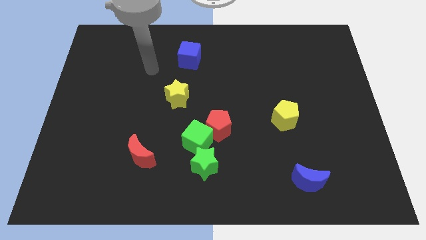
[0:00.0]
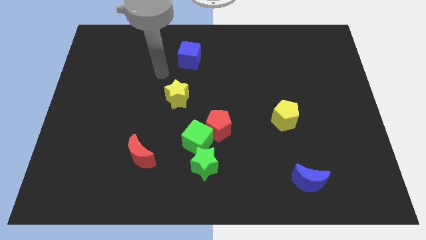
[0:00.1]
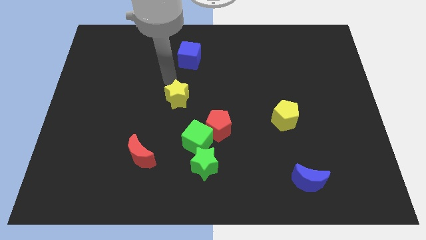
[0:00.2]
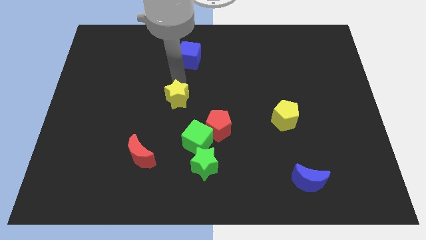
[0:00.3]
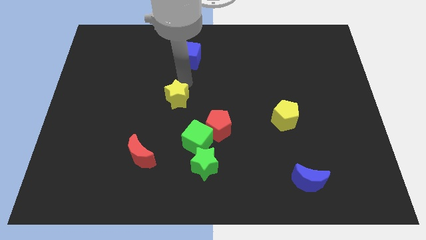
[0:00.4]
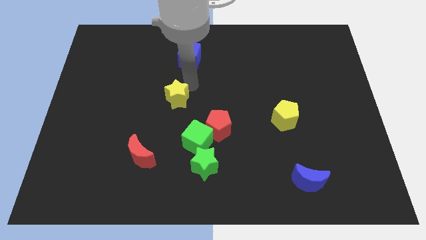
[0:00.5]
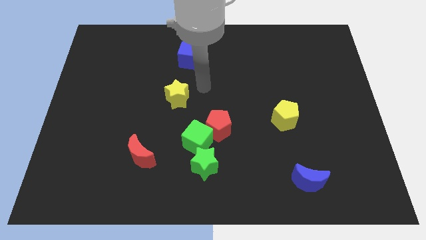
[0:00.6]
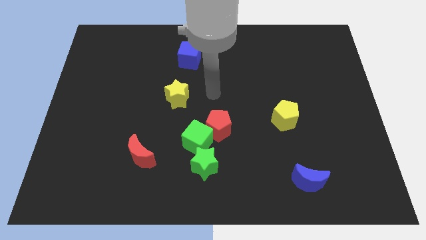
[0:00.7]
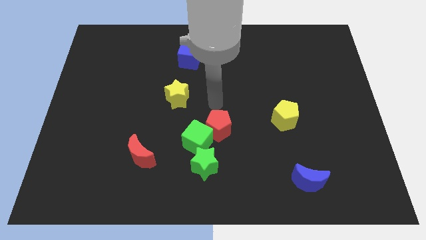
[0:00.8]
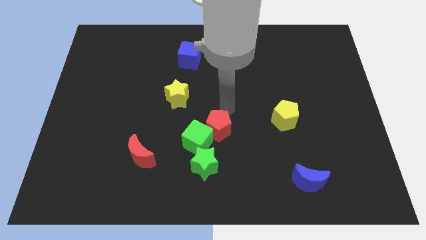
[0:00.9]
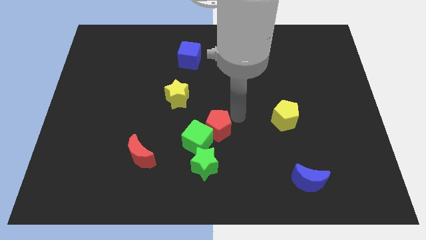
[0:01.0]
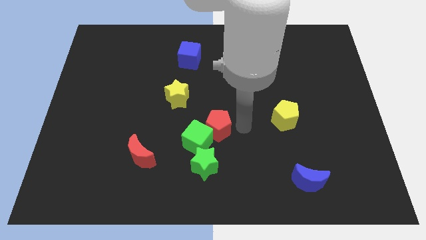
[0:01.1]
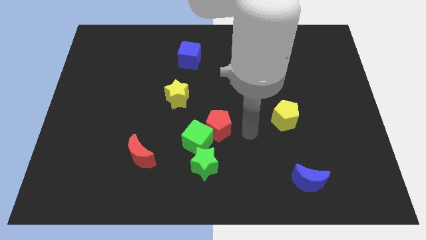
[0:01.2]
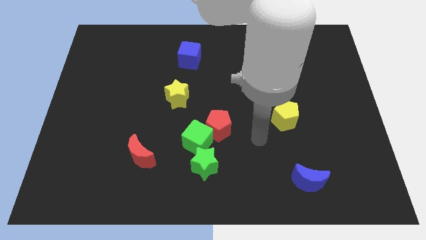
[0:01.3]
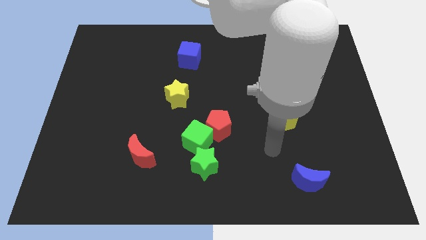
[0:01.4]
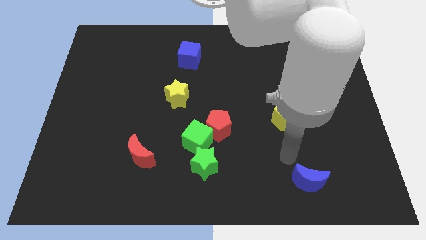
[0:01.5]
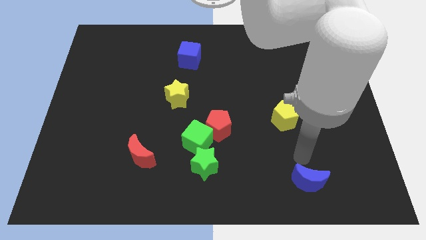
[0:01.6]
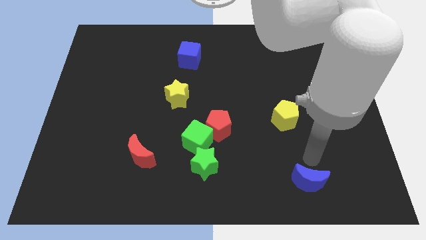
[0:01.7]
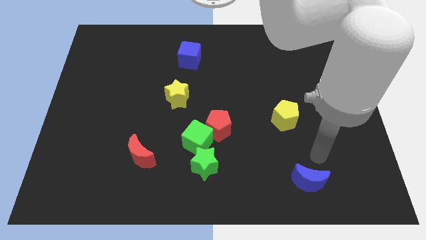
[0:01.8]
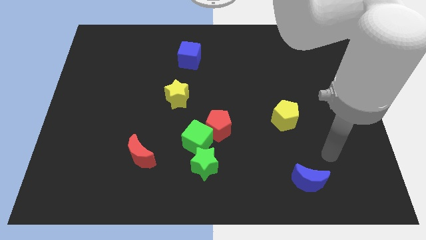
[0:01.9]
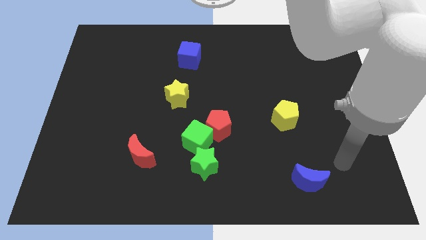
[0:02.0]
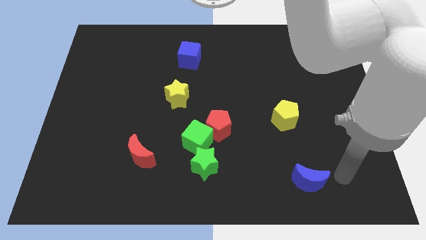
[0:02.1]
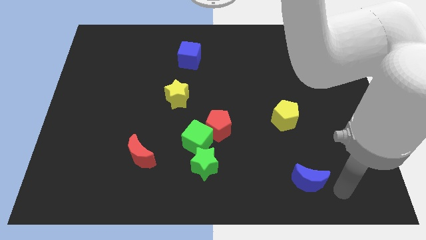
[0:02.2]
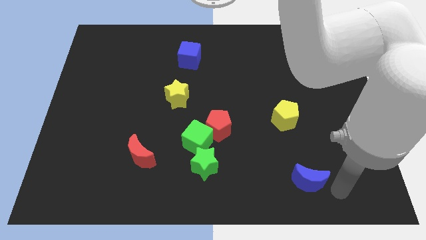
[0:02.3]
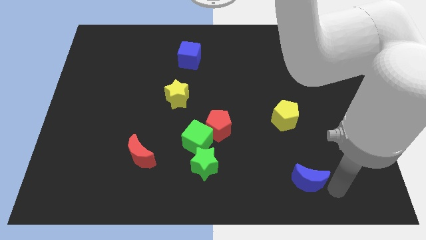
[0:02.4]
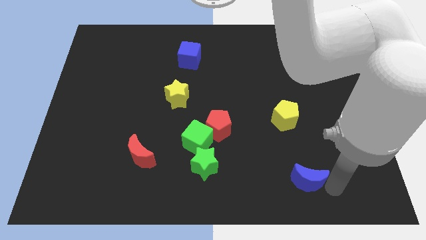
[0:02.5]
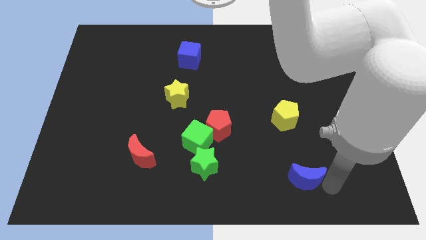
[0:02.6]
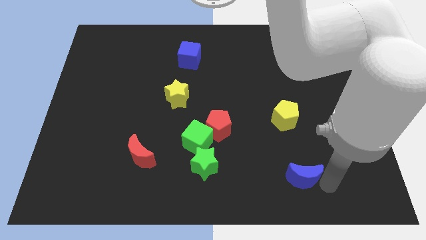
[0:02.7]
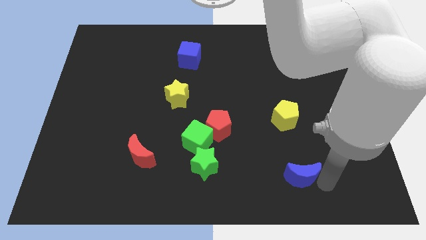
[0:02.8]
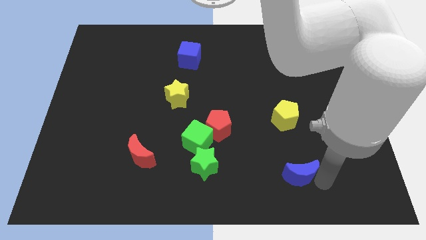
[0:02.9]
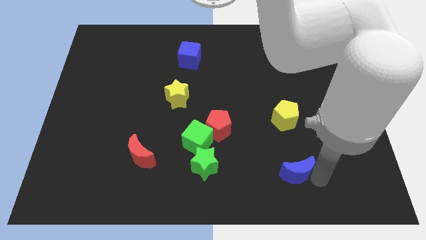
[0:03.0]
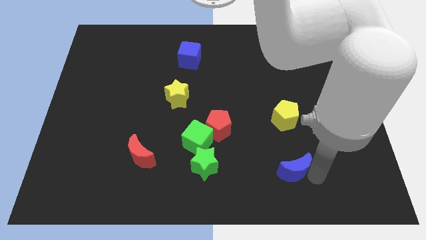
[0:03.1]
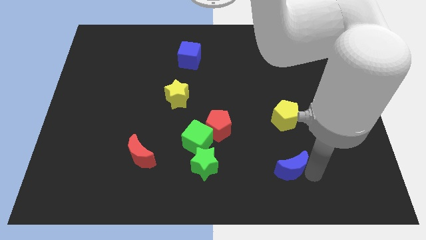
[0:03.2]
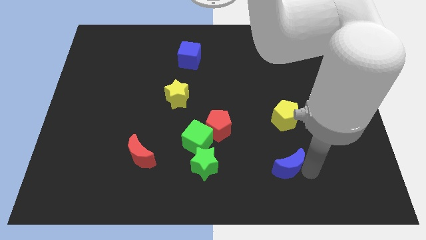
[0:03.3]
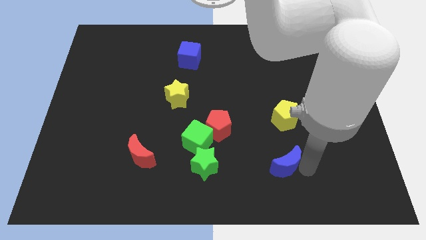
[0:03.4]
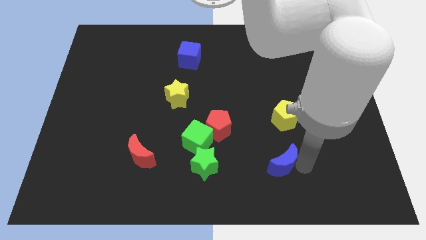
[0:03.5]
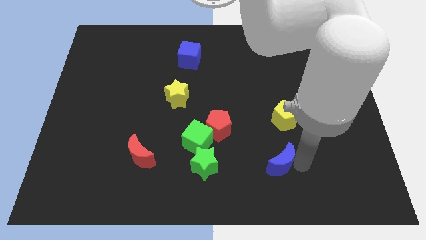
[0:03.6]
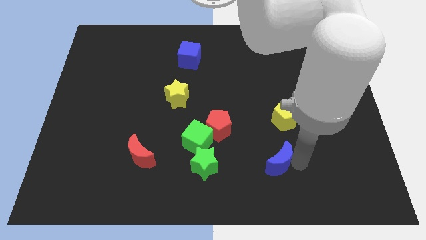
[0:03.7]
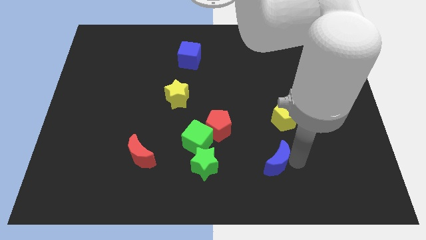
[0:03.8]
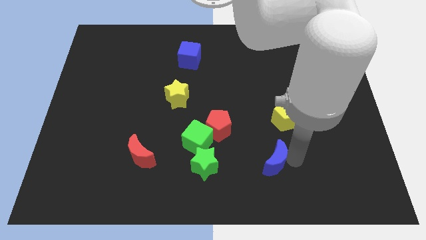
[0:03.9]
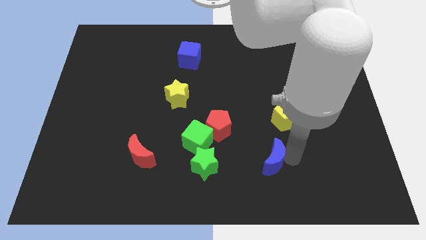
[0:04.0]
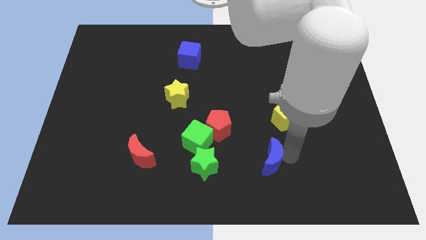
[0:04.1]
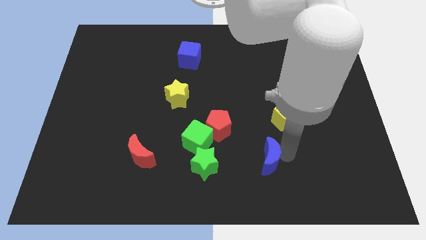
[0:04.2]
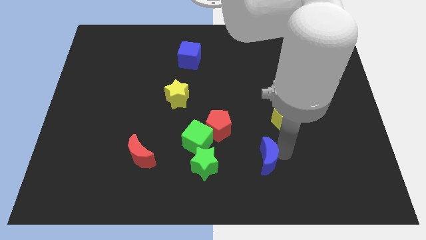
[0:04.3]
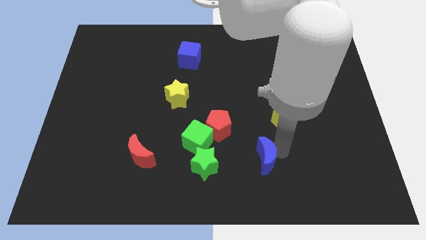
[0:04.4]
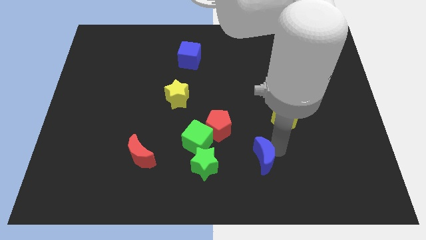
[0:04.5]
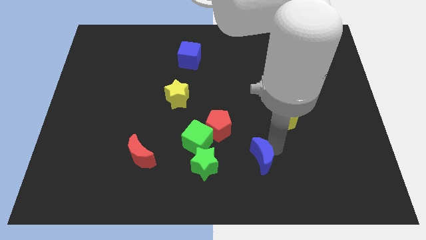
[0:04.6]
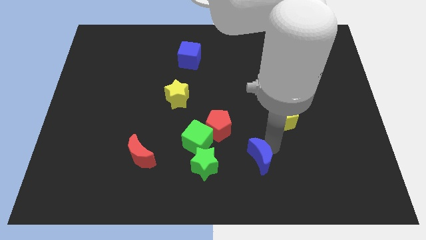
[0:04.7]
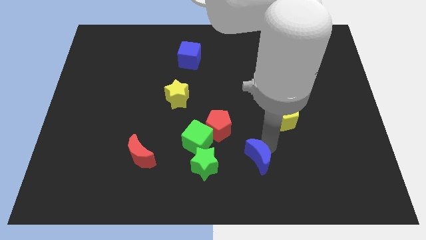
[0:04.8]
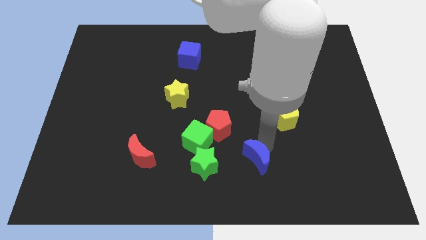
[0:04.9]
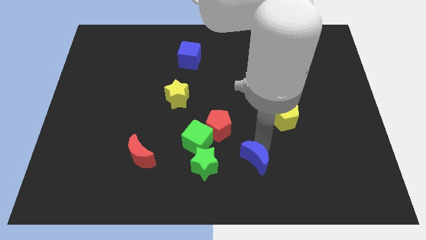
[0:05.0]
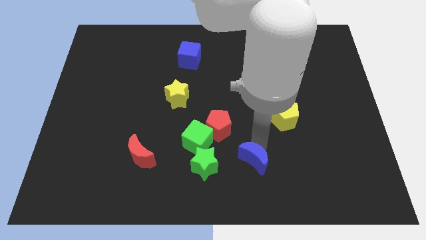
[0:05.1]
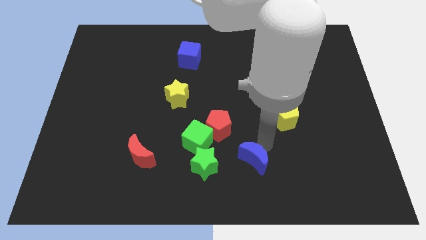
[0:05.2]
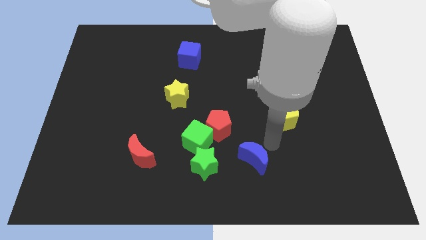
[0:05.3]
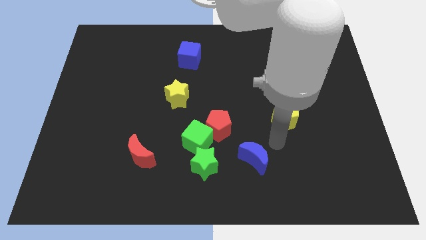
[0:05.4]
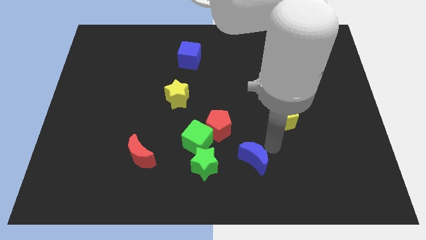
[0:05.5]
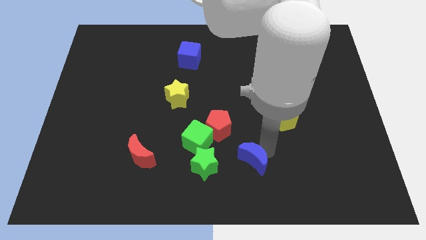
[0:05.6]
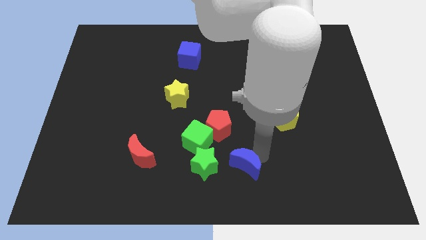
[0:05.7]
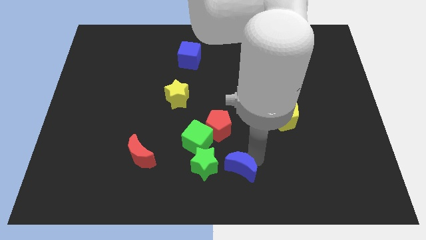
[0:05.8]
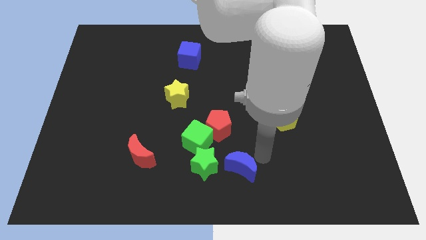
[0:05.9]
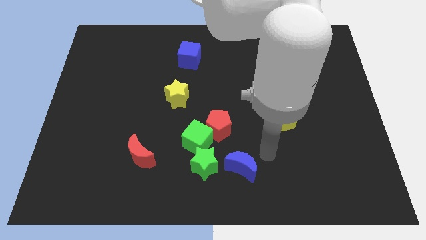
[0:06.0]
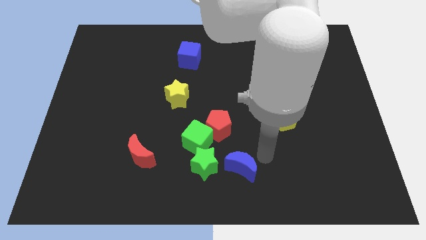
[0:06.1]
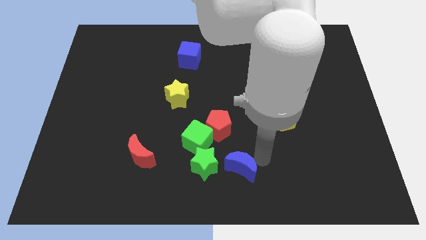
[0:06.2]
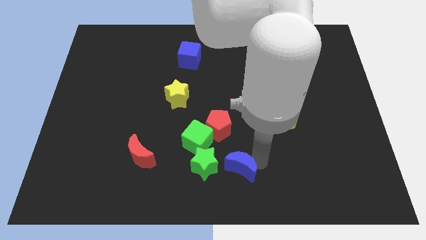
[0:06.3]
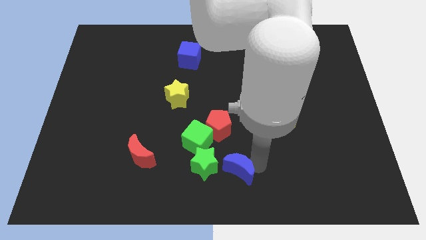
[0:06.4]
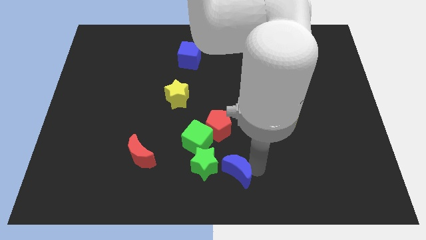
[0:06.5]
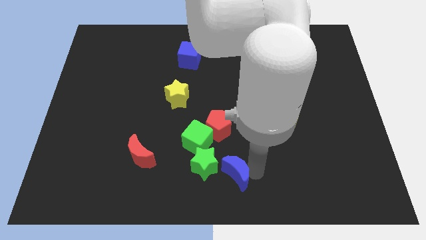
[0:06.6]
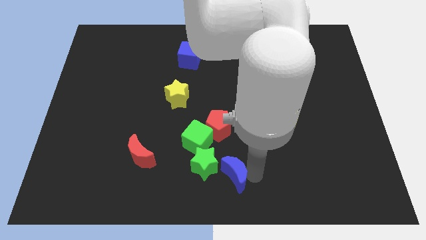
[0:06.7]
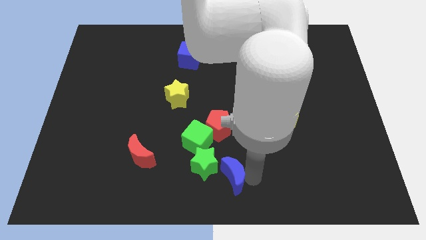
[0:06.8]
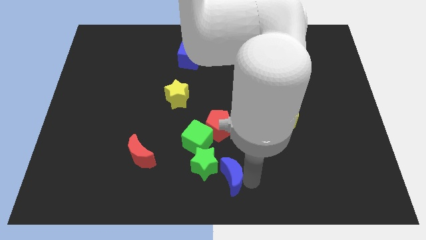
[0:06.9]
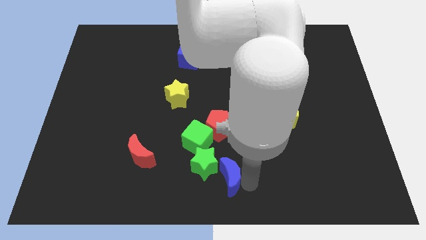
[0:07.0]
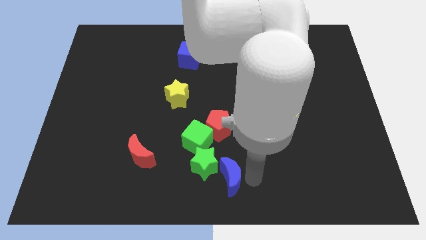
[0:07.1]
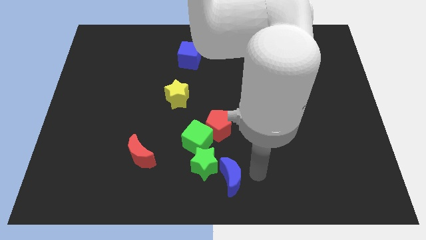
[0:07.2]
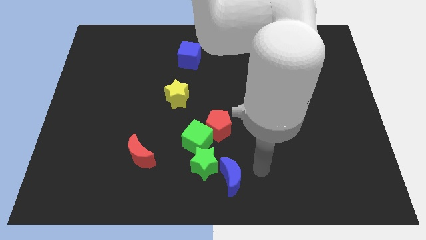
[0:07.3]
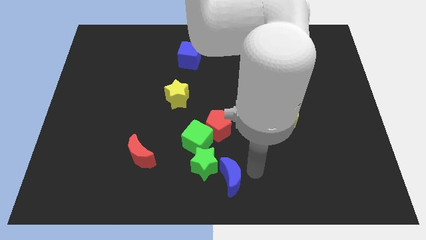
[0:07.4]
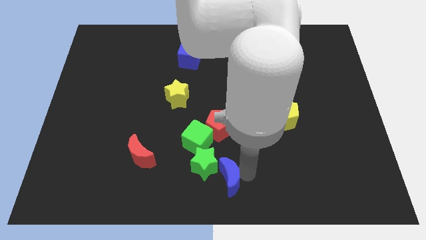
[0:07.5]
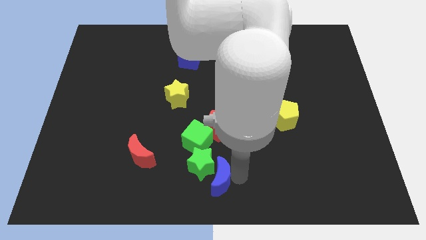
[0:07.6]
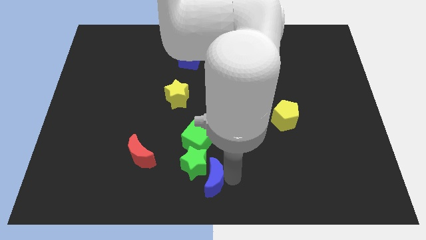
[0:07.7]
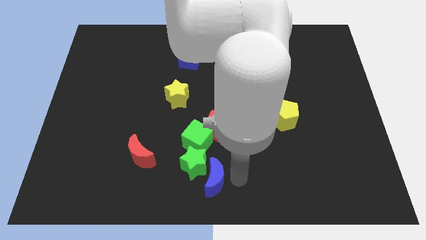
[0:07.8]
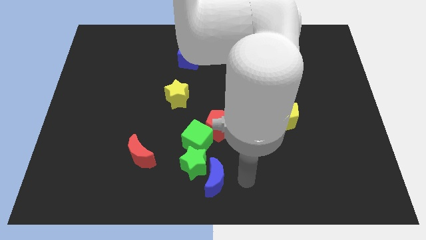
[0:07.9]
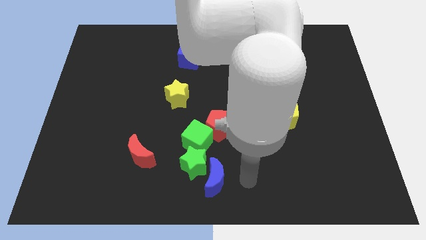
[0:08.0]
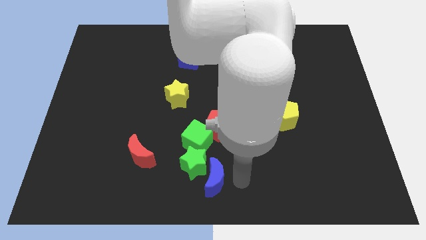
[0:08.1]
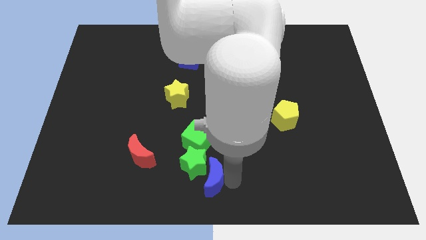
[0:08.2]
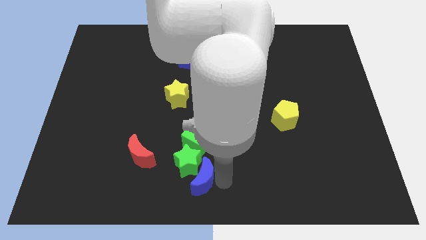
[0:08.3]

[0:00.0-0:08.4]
slide the blue moon left

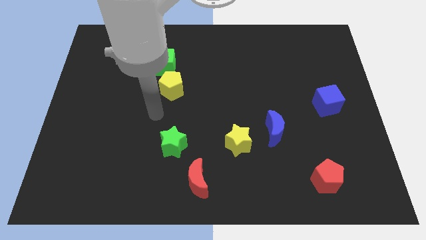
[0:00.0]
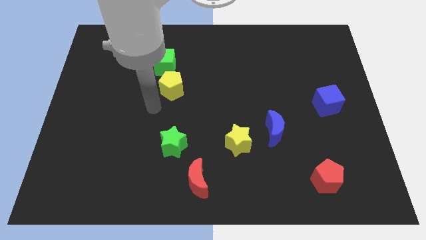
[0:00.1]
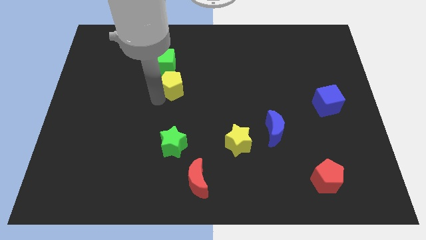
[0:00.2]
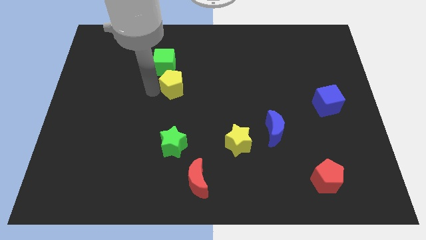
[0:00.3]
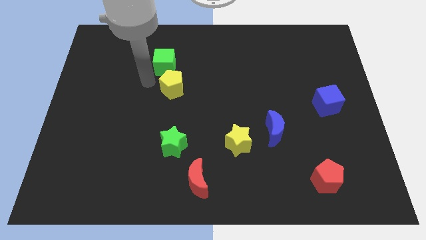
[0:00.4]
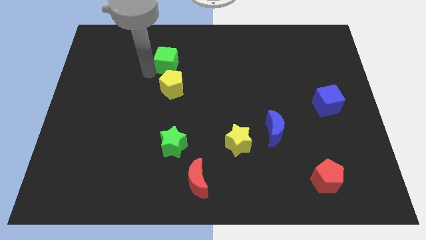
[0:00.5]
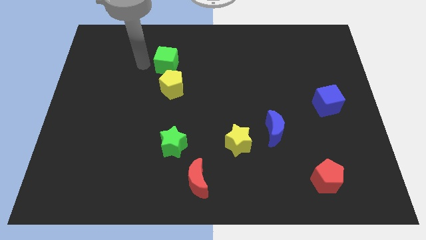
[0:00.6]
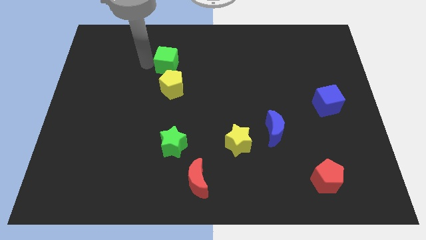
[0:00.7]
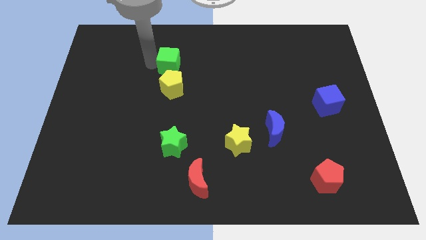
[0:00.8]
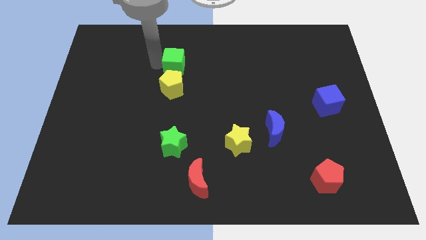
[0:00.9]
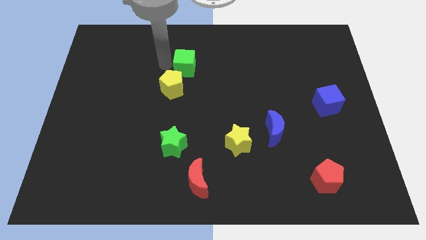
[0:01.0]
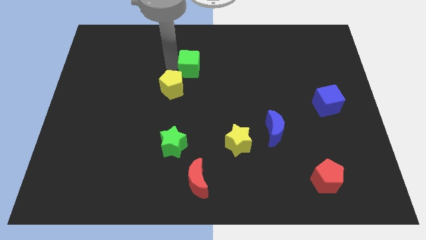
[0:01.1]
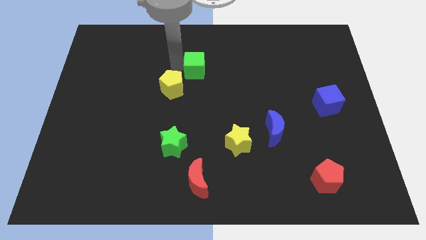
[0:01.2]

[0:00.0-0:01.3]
slightly push the green cube right
